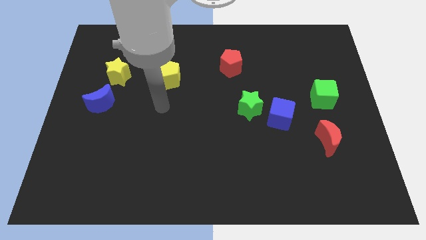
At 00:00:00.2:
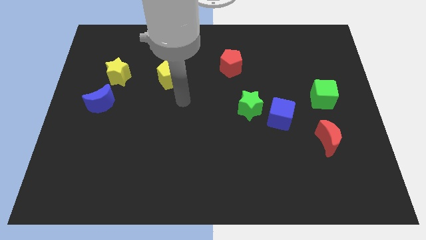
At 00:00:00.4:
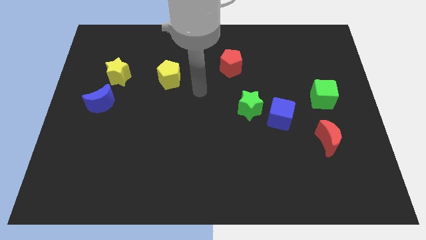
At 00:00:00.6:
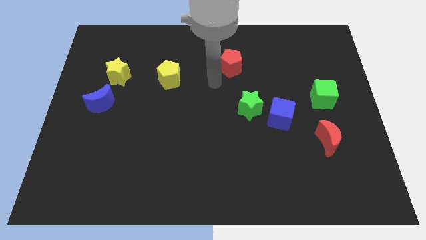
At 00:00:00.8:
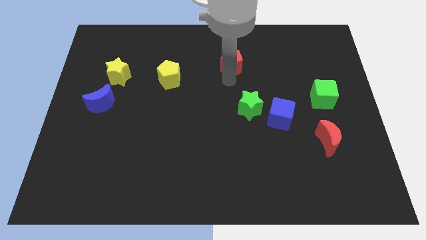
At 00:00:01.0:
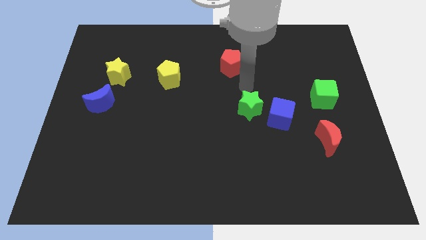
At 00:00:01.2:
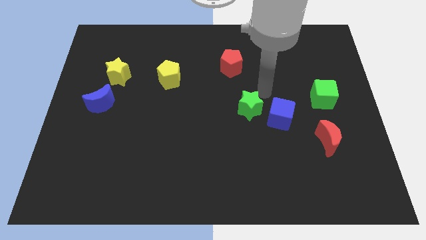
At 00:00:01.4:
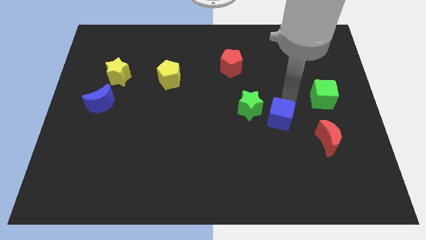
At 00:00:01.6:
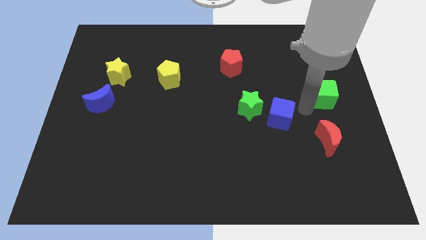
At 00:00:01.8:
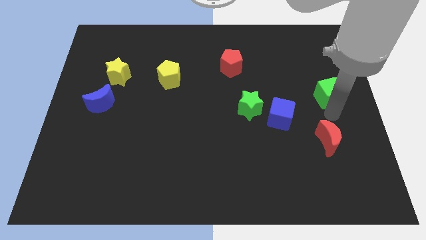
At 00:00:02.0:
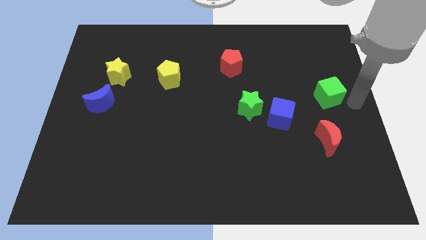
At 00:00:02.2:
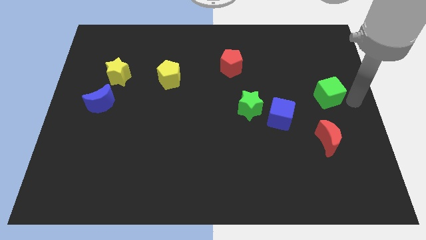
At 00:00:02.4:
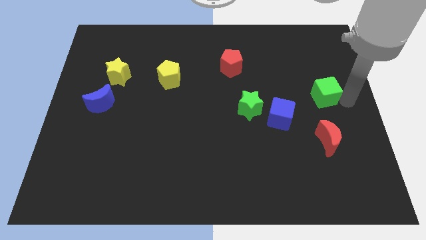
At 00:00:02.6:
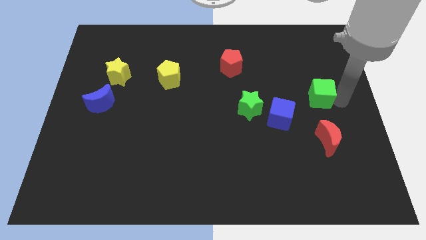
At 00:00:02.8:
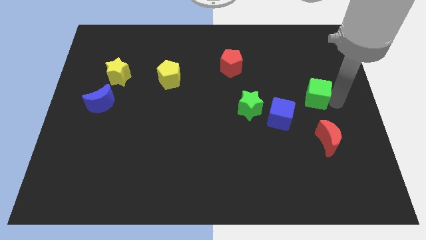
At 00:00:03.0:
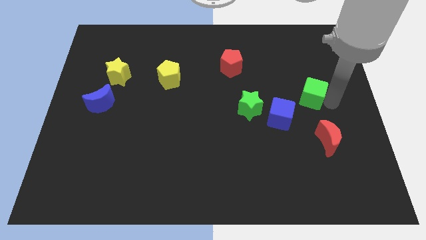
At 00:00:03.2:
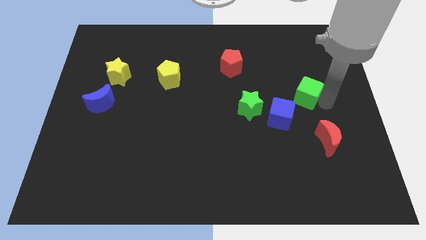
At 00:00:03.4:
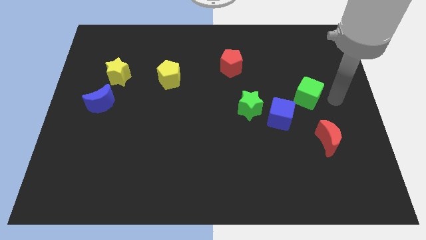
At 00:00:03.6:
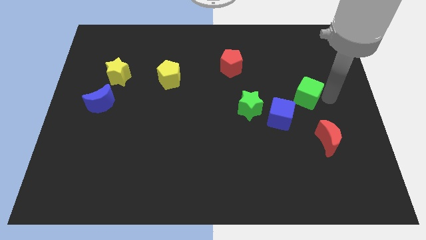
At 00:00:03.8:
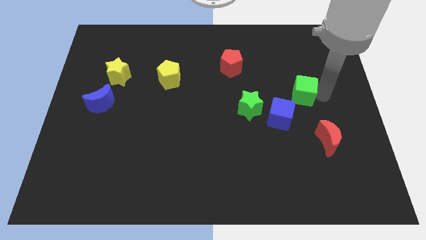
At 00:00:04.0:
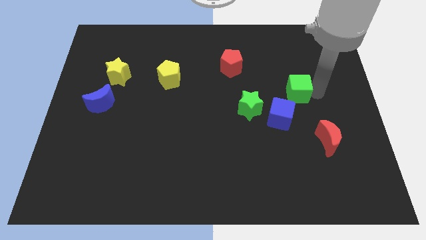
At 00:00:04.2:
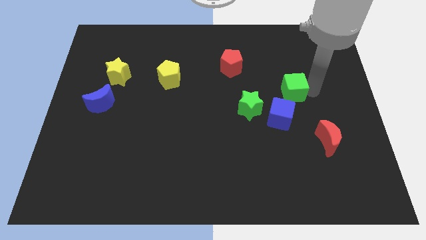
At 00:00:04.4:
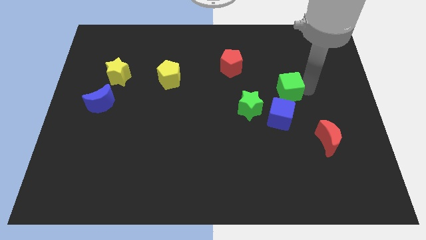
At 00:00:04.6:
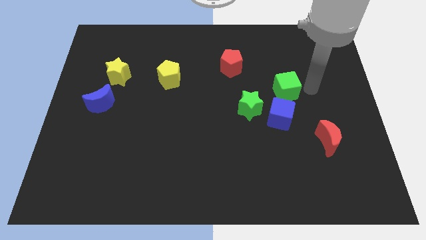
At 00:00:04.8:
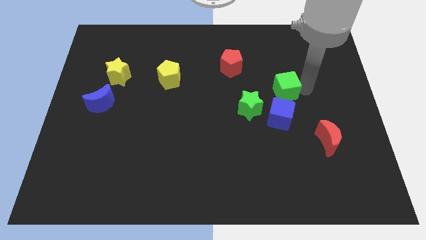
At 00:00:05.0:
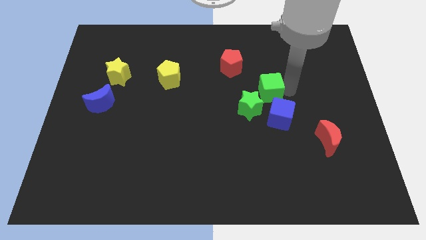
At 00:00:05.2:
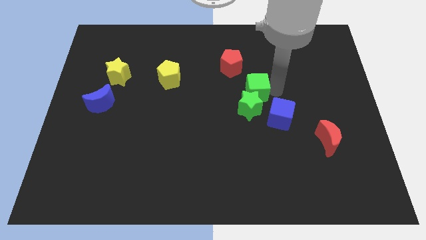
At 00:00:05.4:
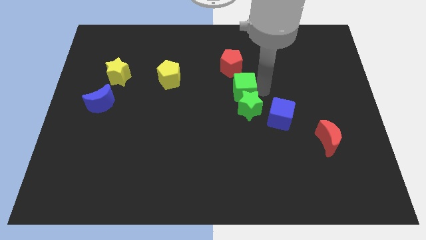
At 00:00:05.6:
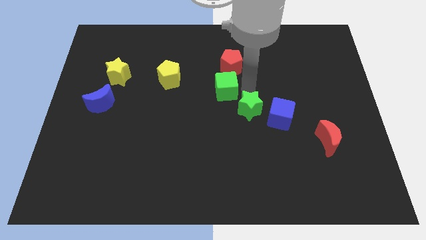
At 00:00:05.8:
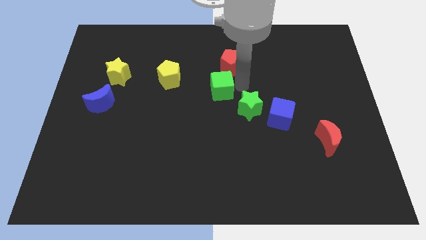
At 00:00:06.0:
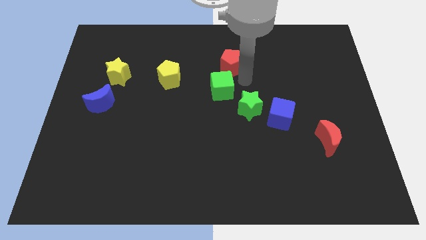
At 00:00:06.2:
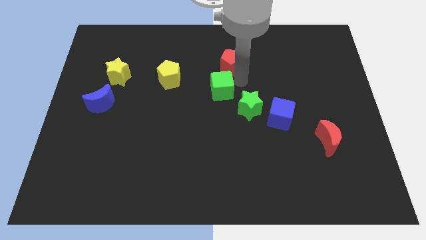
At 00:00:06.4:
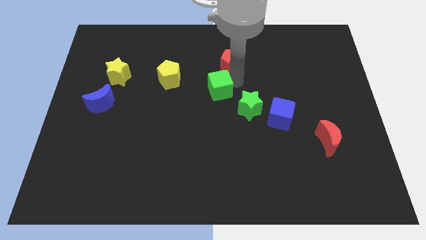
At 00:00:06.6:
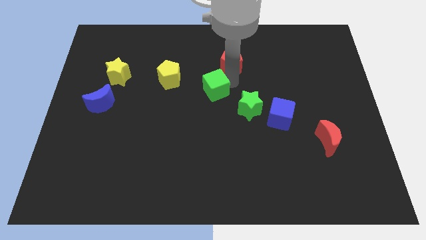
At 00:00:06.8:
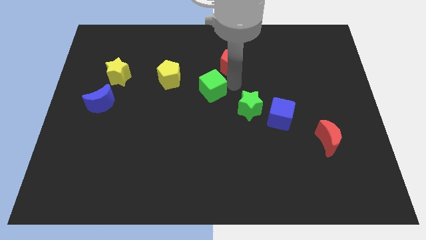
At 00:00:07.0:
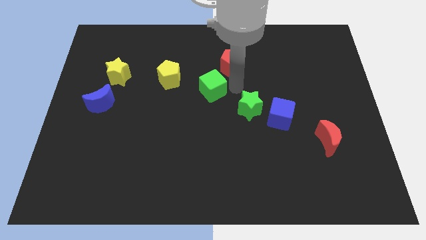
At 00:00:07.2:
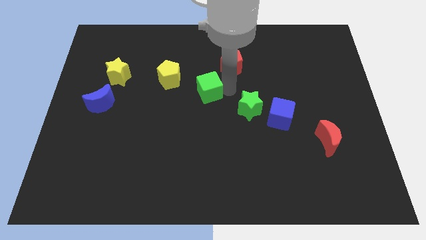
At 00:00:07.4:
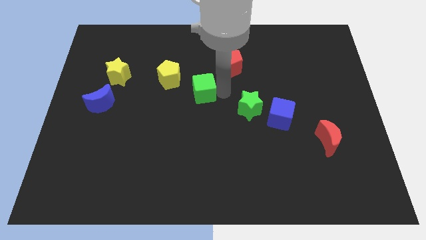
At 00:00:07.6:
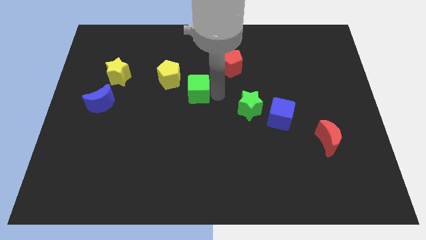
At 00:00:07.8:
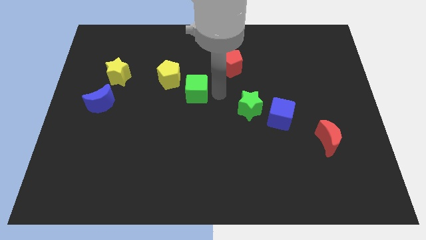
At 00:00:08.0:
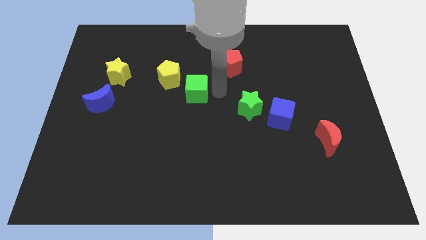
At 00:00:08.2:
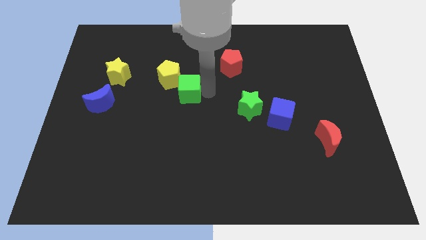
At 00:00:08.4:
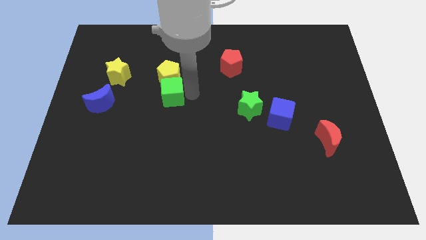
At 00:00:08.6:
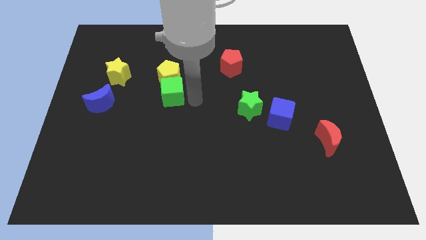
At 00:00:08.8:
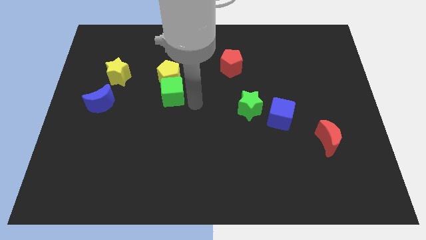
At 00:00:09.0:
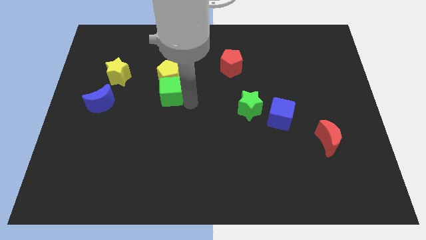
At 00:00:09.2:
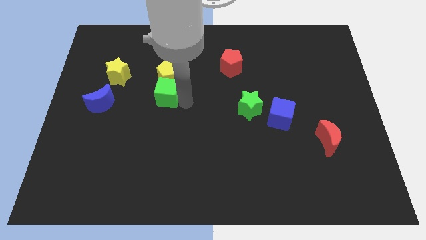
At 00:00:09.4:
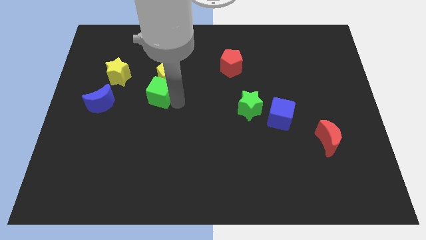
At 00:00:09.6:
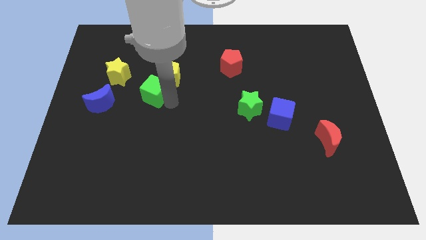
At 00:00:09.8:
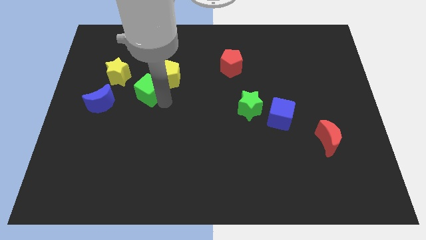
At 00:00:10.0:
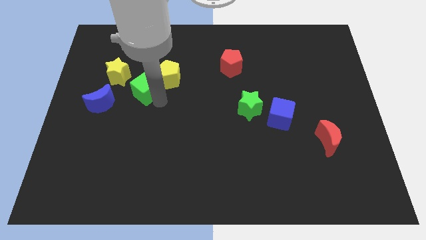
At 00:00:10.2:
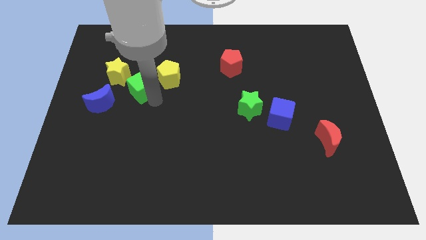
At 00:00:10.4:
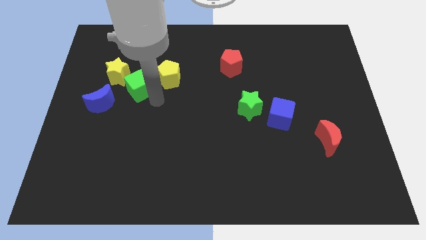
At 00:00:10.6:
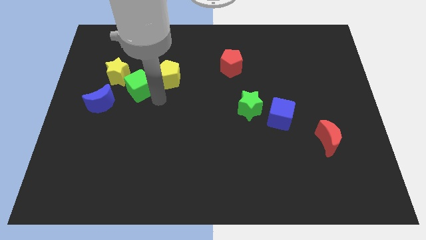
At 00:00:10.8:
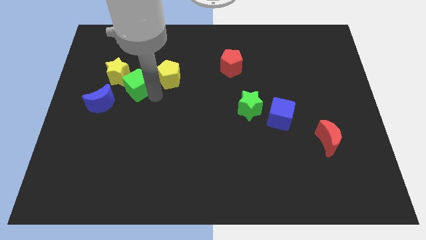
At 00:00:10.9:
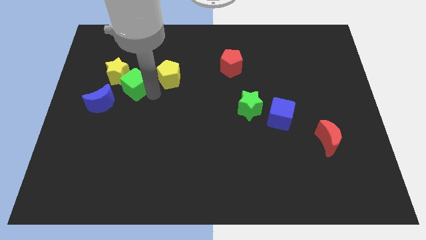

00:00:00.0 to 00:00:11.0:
move the green cube close to the yellow star

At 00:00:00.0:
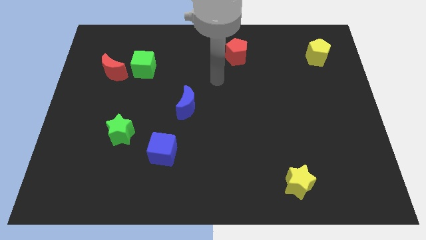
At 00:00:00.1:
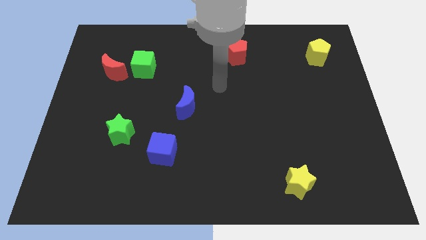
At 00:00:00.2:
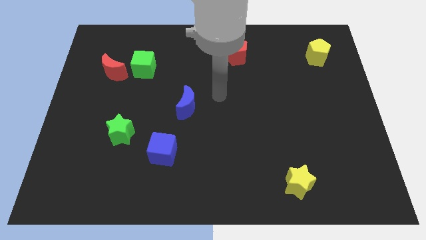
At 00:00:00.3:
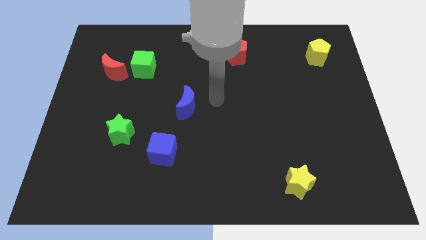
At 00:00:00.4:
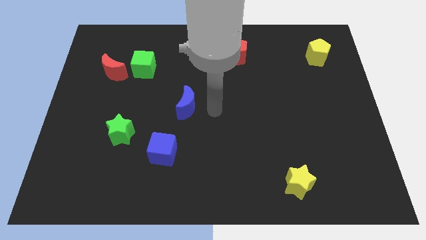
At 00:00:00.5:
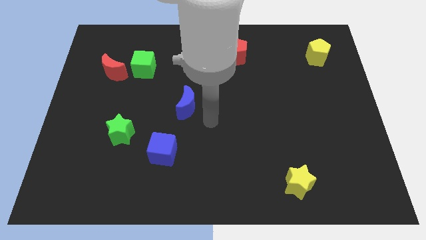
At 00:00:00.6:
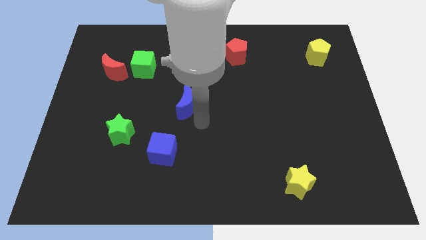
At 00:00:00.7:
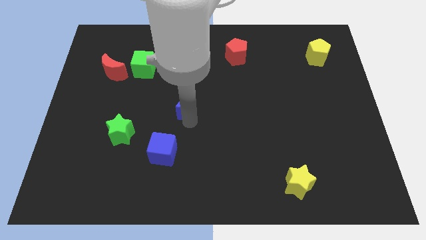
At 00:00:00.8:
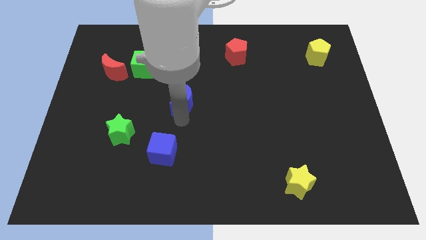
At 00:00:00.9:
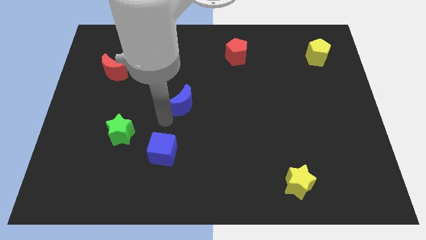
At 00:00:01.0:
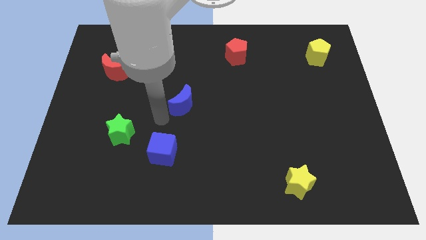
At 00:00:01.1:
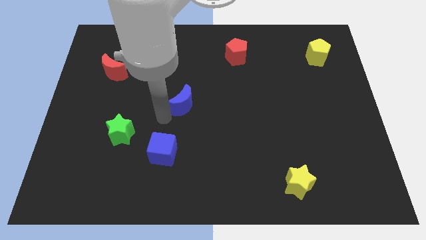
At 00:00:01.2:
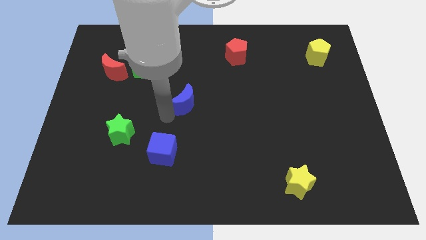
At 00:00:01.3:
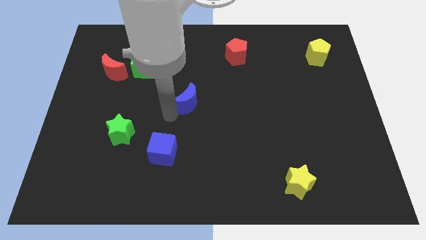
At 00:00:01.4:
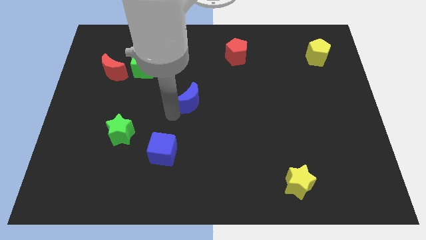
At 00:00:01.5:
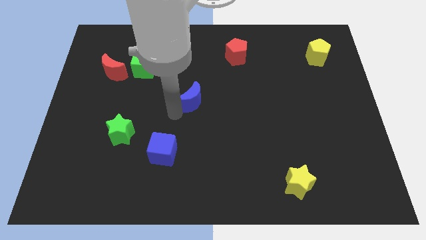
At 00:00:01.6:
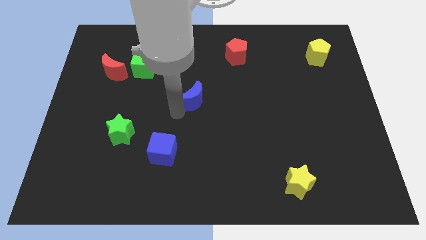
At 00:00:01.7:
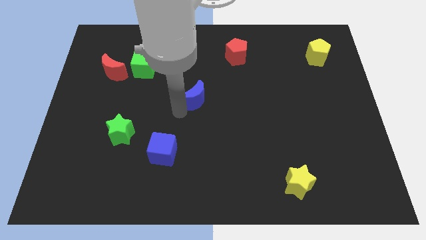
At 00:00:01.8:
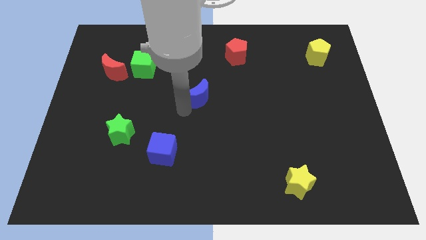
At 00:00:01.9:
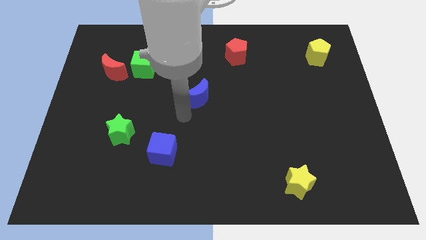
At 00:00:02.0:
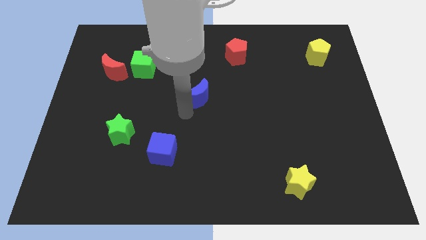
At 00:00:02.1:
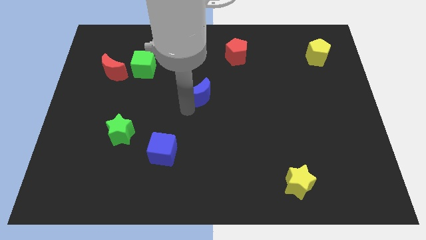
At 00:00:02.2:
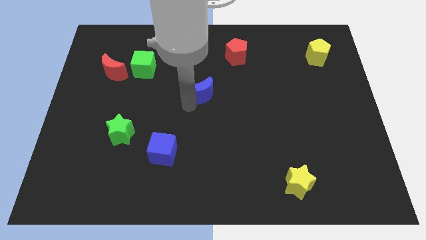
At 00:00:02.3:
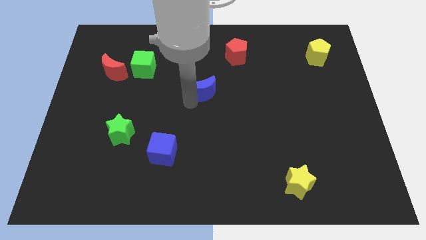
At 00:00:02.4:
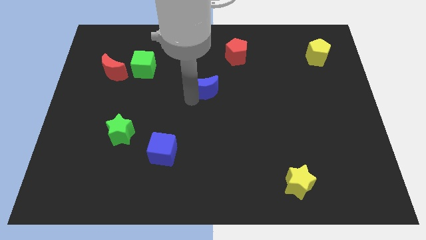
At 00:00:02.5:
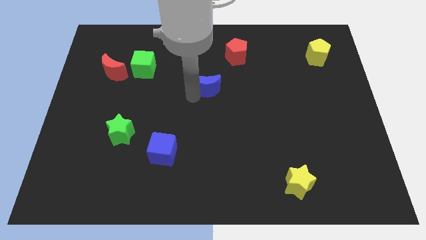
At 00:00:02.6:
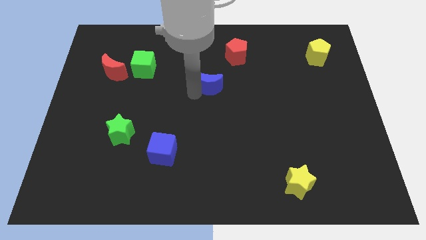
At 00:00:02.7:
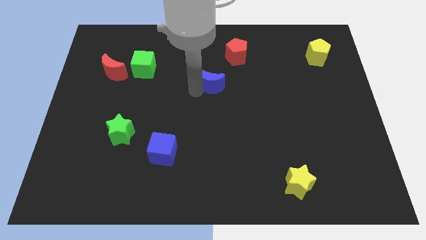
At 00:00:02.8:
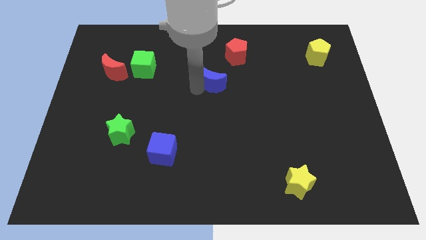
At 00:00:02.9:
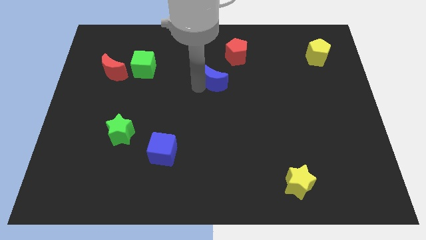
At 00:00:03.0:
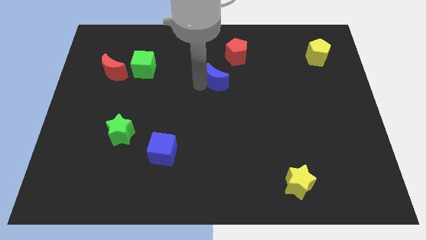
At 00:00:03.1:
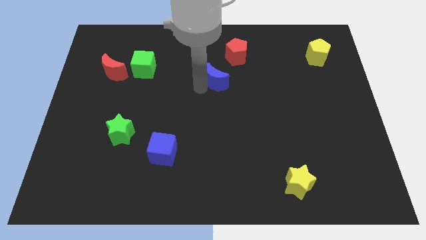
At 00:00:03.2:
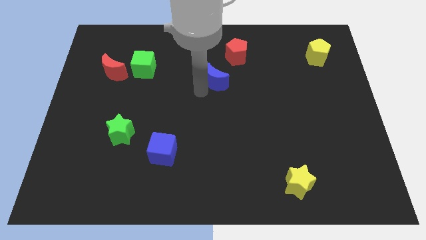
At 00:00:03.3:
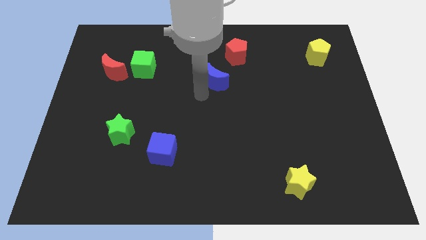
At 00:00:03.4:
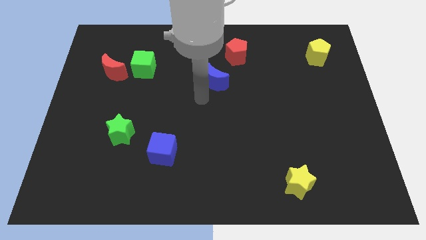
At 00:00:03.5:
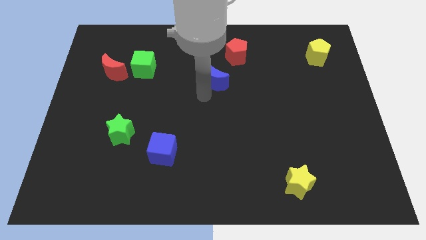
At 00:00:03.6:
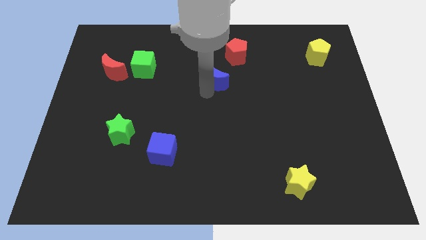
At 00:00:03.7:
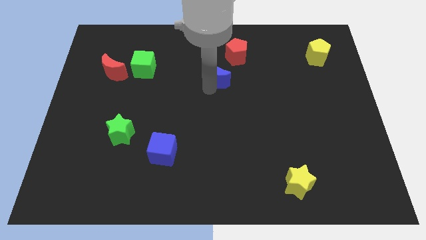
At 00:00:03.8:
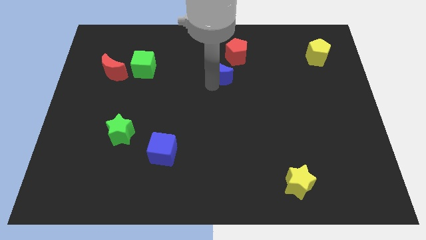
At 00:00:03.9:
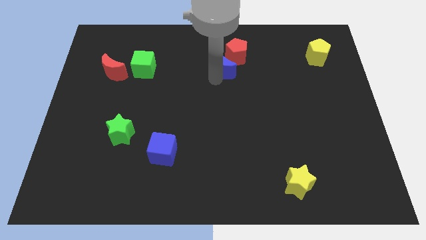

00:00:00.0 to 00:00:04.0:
put the blue moon towards the red pentagon
